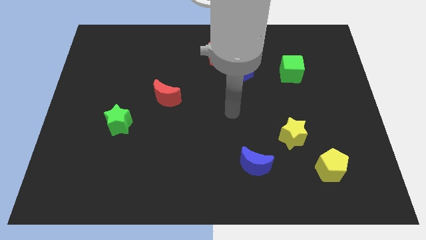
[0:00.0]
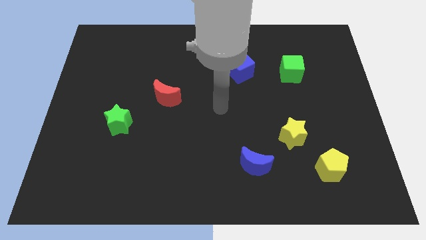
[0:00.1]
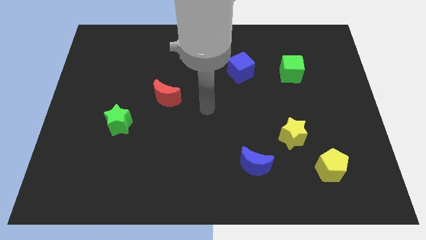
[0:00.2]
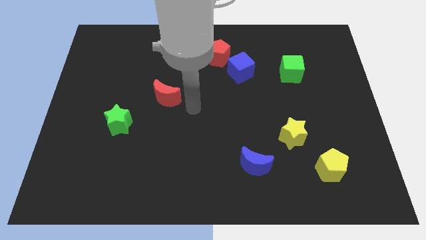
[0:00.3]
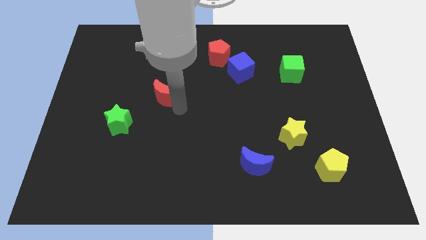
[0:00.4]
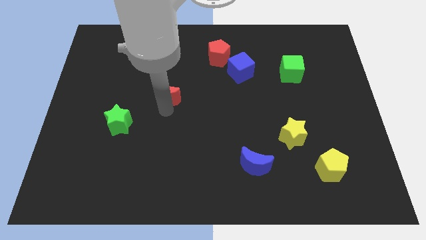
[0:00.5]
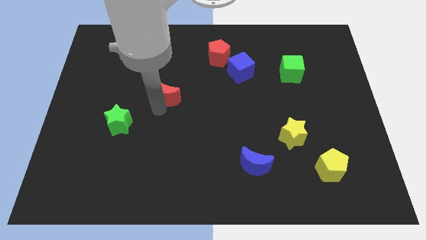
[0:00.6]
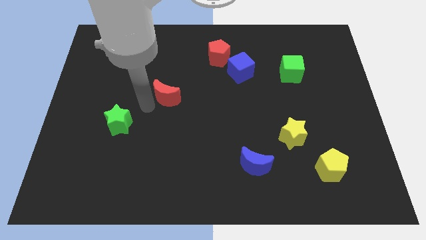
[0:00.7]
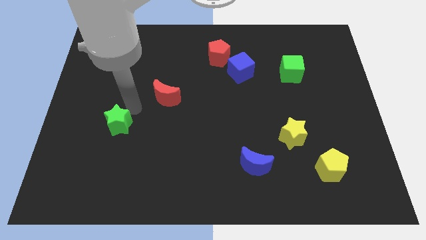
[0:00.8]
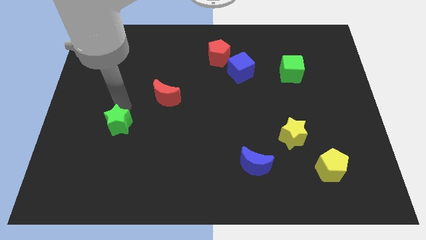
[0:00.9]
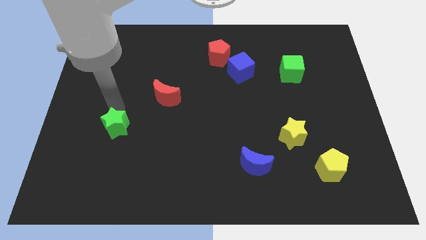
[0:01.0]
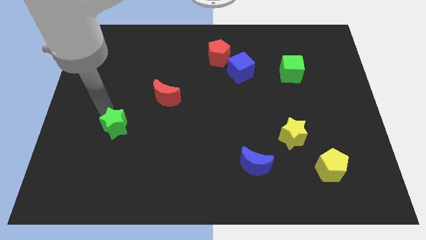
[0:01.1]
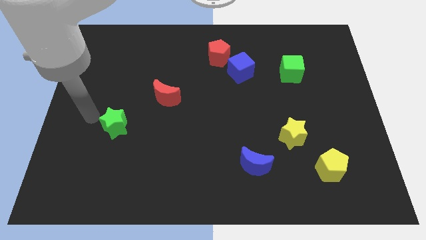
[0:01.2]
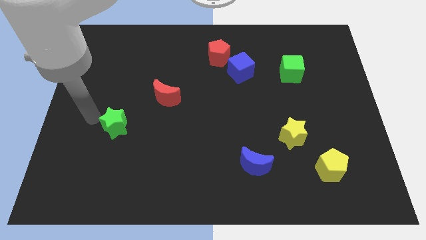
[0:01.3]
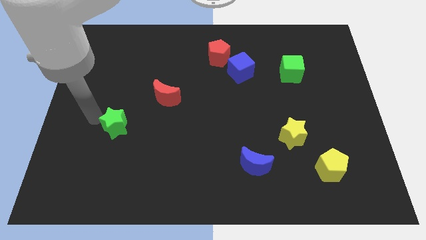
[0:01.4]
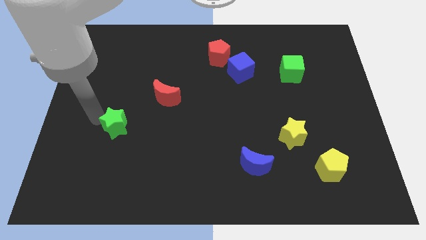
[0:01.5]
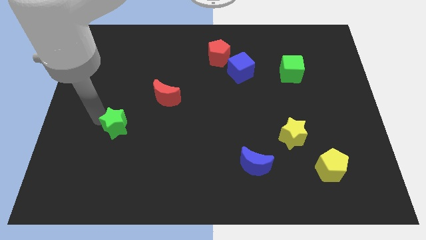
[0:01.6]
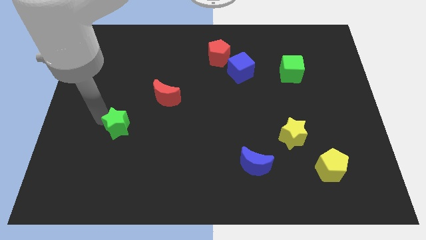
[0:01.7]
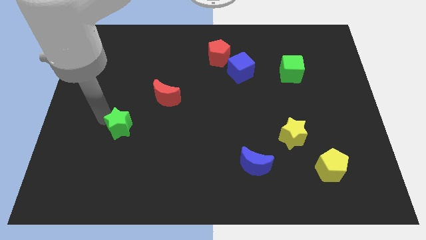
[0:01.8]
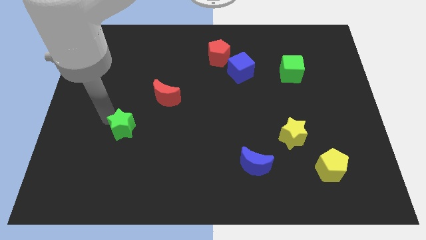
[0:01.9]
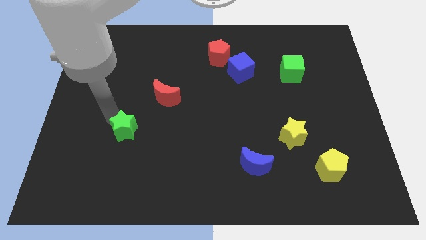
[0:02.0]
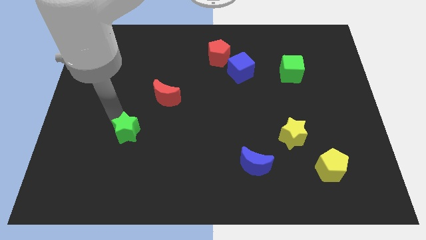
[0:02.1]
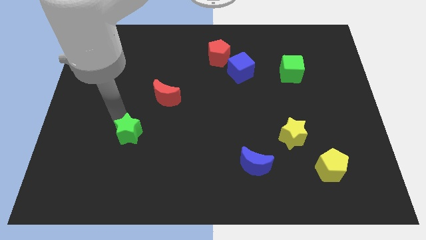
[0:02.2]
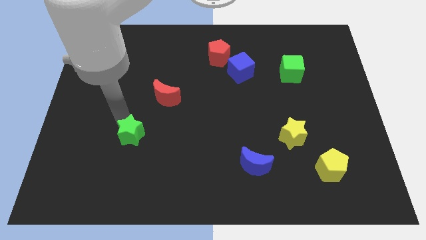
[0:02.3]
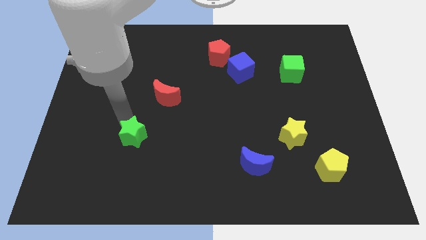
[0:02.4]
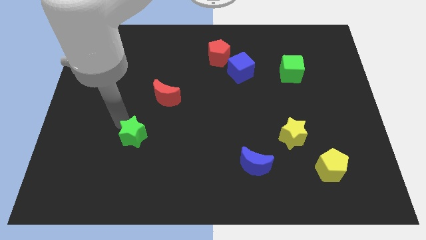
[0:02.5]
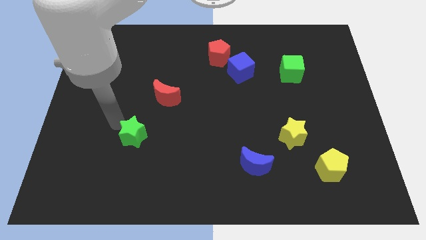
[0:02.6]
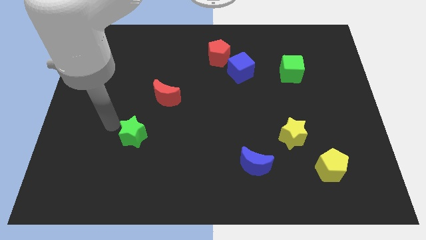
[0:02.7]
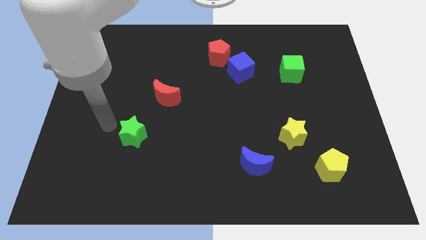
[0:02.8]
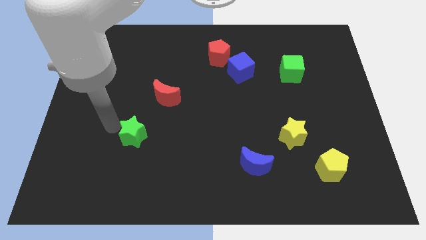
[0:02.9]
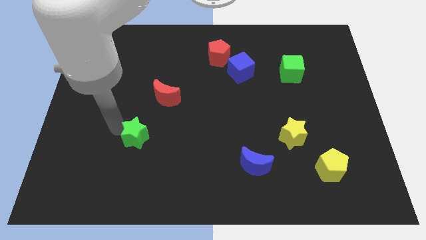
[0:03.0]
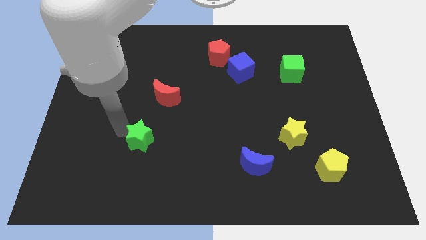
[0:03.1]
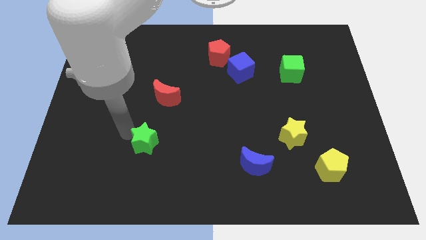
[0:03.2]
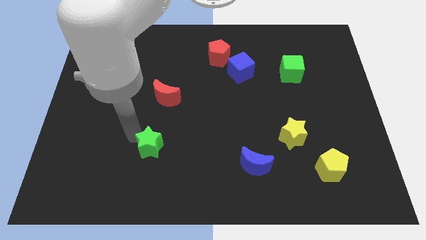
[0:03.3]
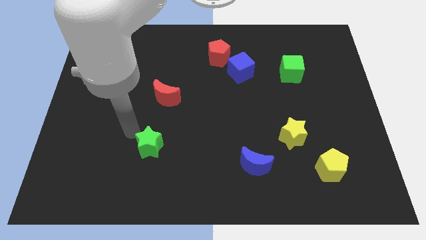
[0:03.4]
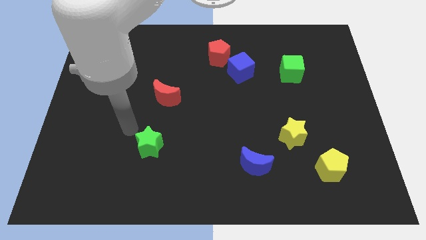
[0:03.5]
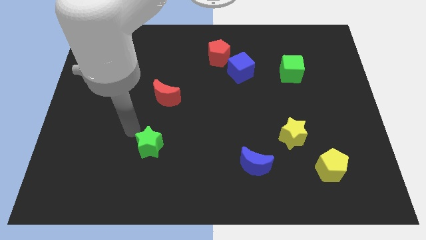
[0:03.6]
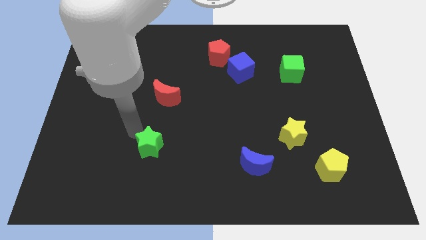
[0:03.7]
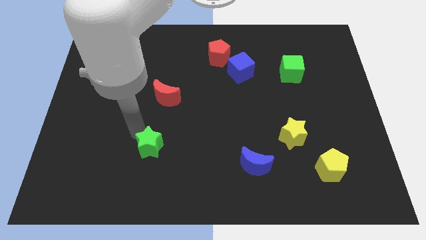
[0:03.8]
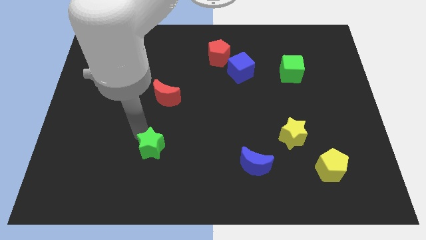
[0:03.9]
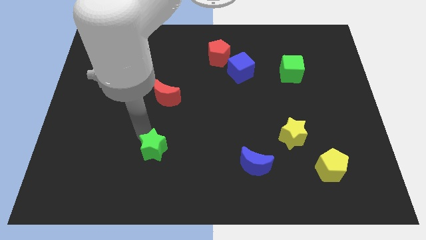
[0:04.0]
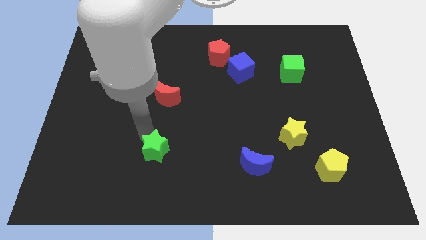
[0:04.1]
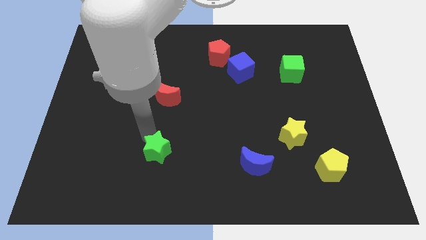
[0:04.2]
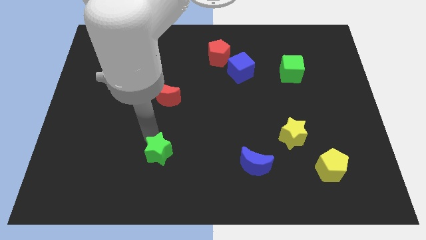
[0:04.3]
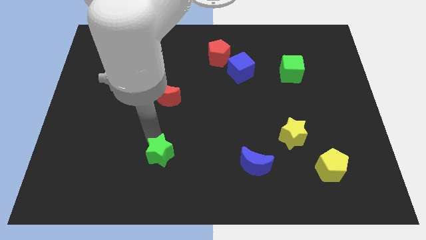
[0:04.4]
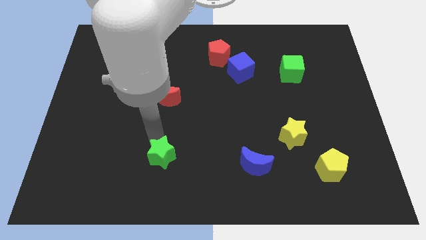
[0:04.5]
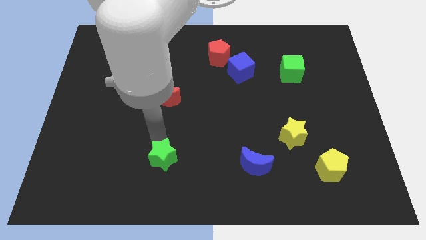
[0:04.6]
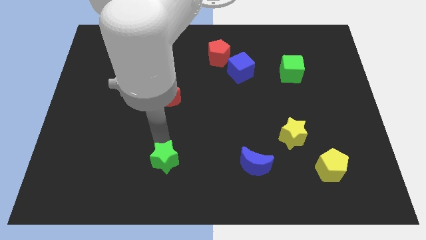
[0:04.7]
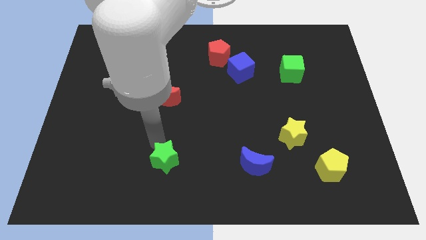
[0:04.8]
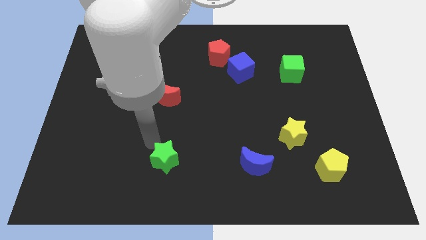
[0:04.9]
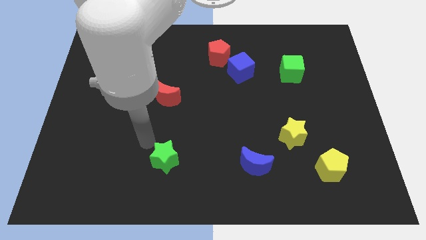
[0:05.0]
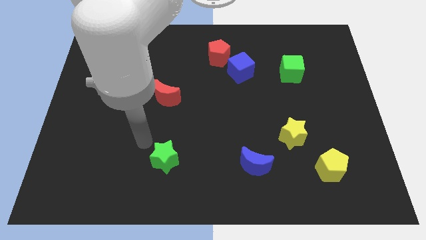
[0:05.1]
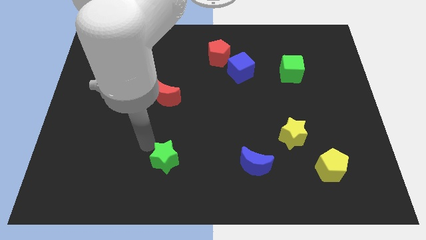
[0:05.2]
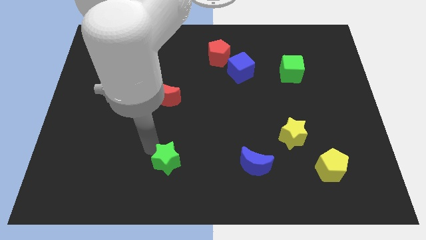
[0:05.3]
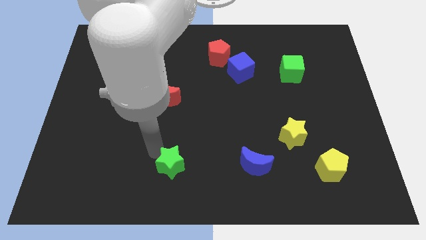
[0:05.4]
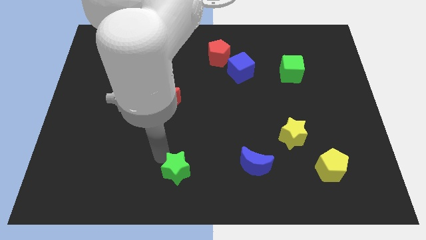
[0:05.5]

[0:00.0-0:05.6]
slide the green star to the bottom side

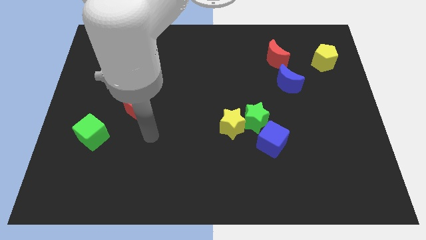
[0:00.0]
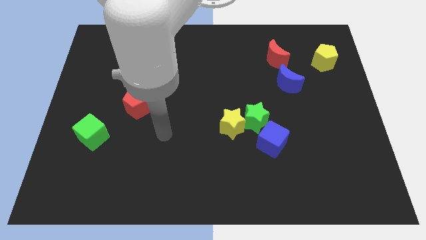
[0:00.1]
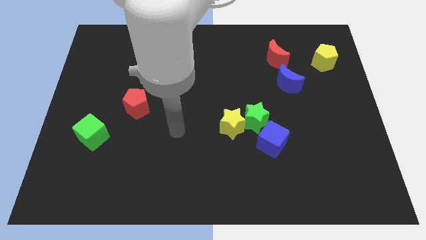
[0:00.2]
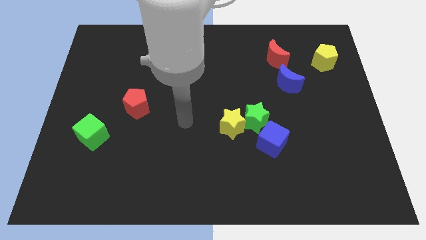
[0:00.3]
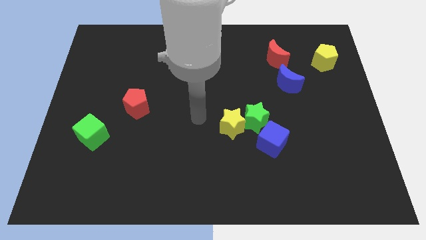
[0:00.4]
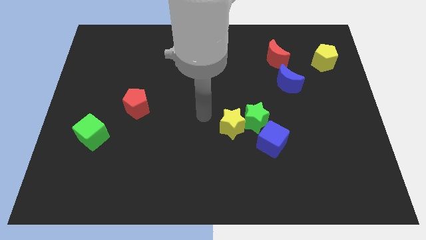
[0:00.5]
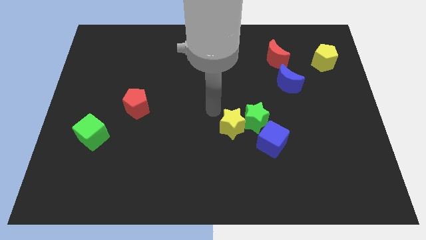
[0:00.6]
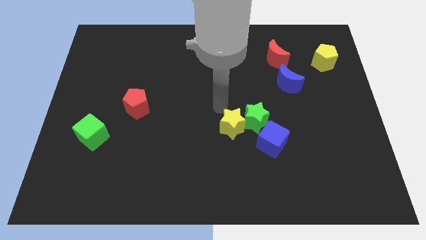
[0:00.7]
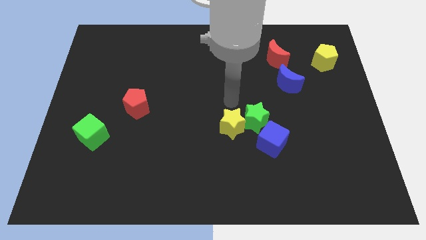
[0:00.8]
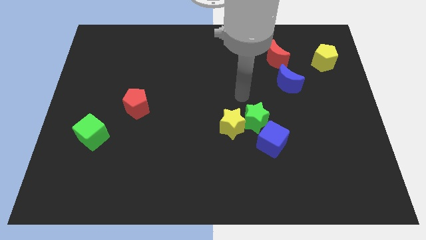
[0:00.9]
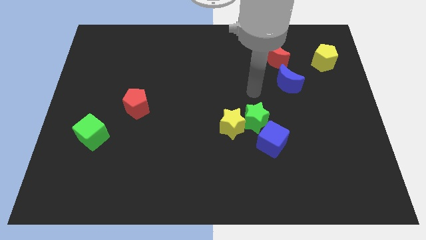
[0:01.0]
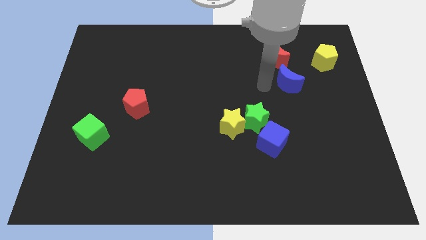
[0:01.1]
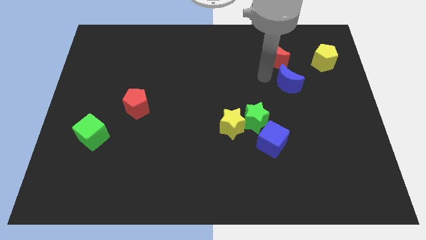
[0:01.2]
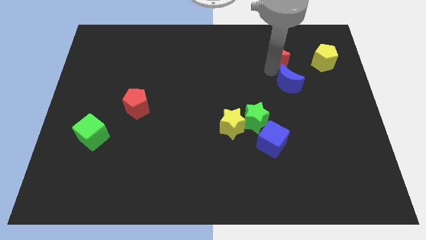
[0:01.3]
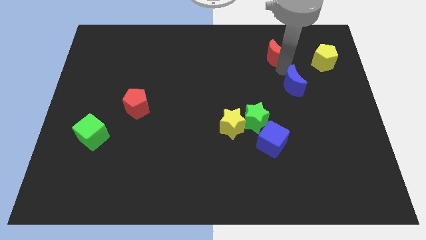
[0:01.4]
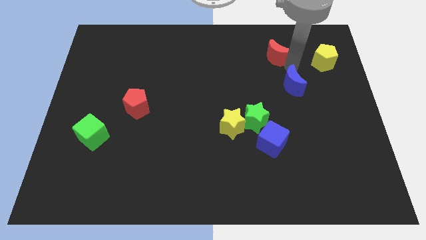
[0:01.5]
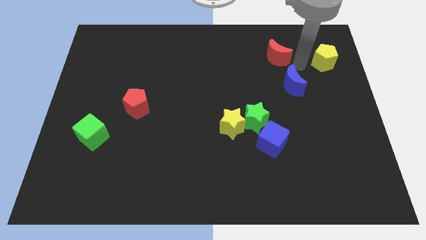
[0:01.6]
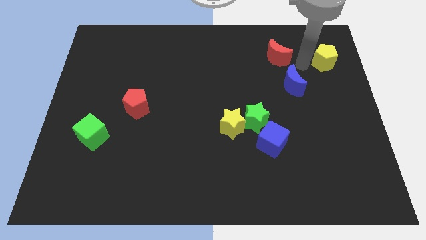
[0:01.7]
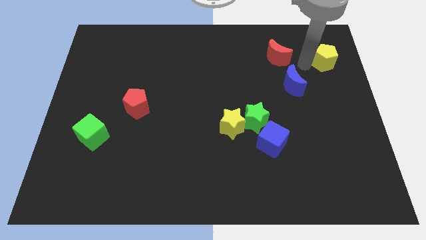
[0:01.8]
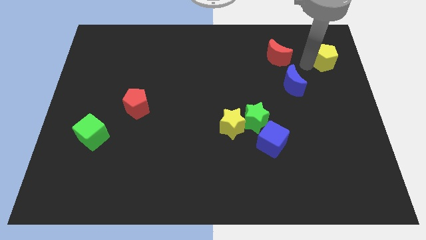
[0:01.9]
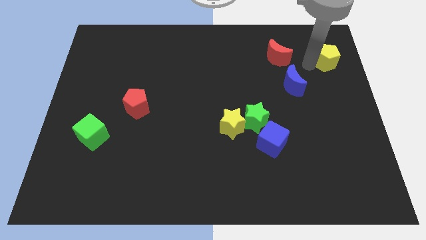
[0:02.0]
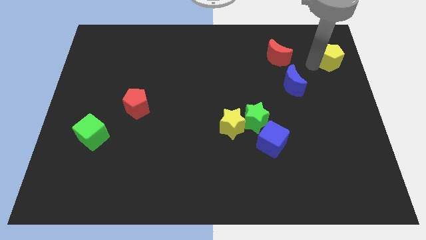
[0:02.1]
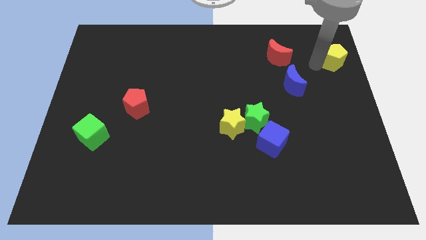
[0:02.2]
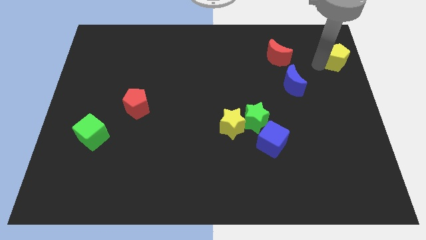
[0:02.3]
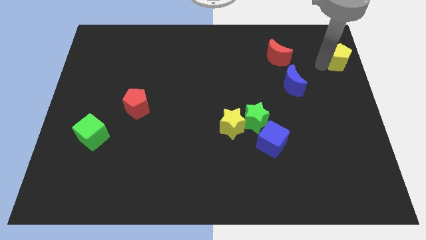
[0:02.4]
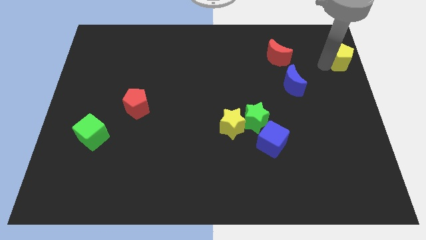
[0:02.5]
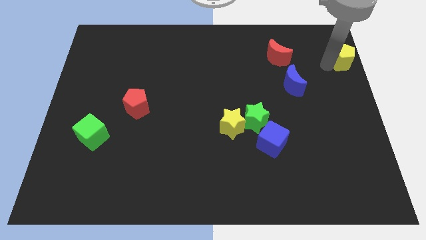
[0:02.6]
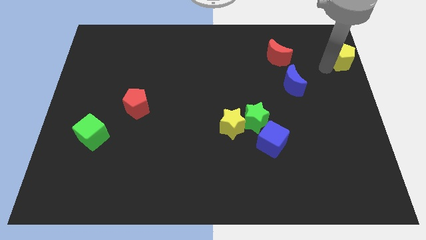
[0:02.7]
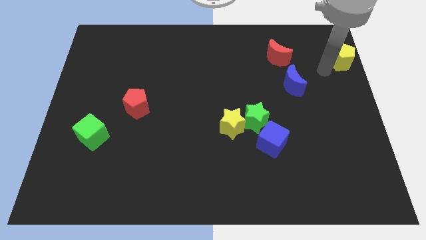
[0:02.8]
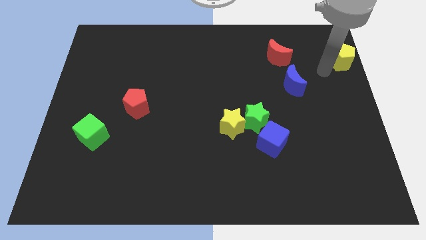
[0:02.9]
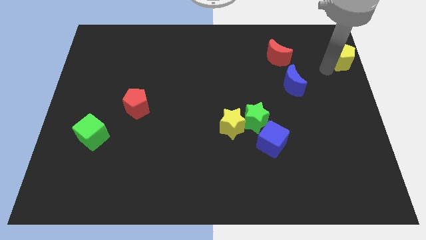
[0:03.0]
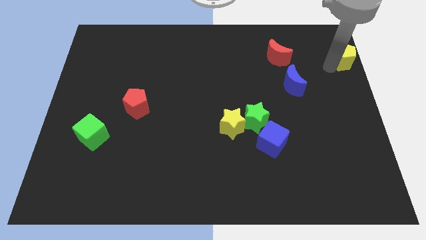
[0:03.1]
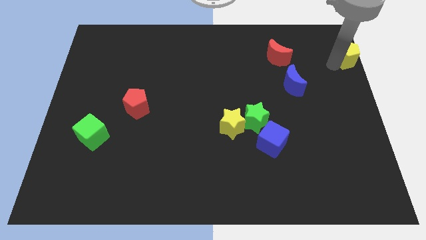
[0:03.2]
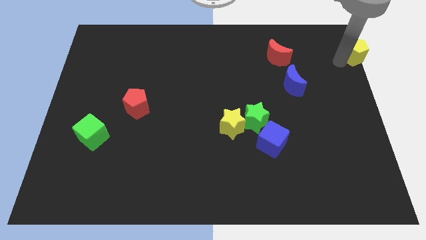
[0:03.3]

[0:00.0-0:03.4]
move the yellow pentagon to the top right corner
